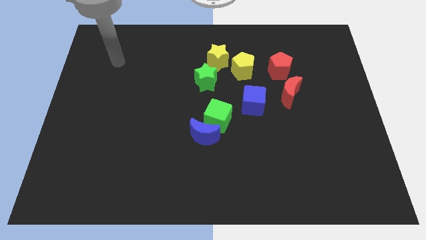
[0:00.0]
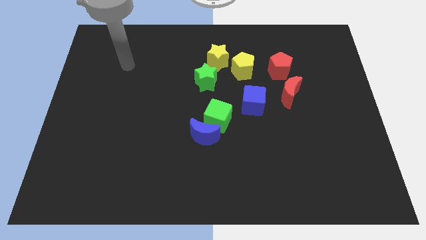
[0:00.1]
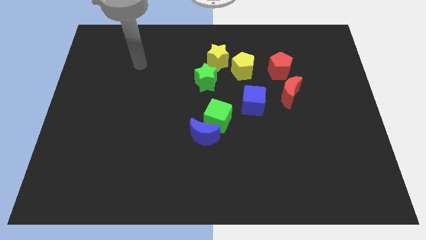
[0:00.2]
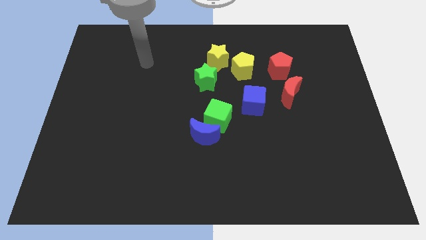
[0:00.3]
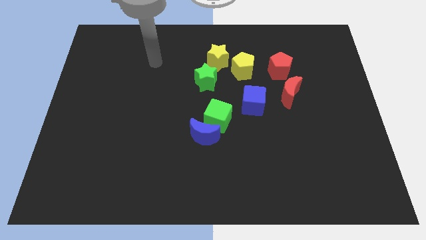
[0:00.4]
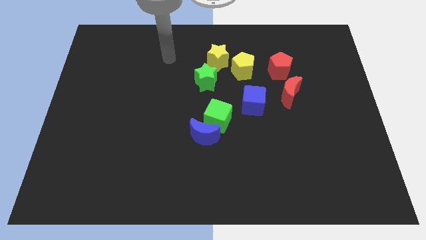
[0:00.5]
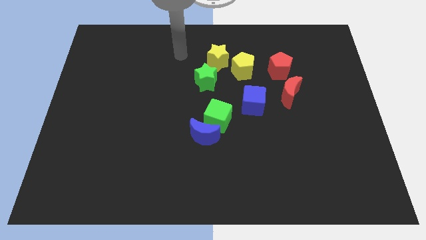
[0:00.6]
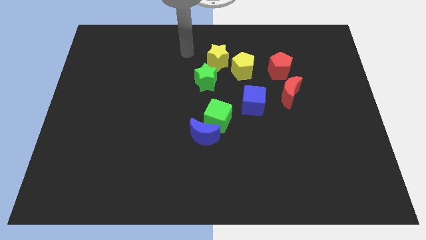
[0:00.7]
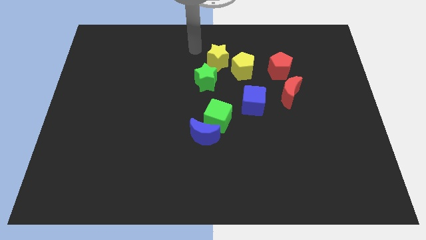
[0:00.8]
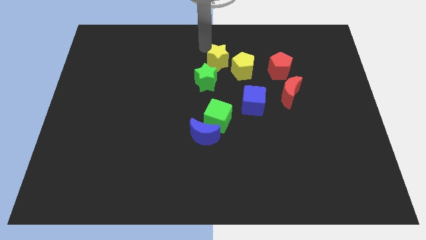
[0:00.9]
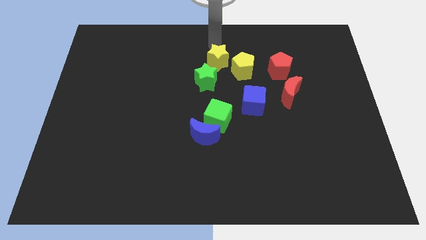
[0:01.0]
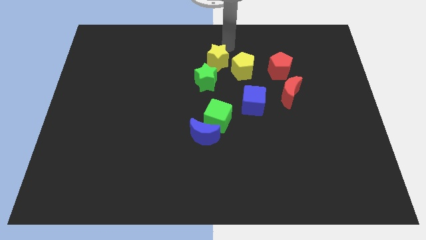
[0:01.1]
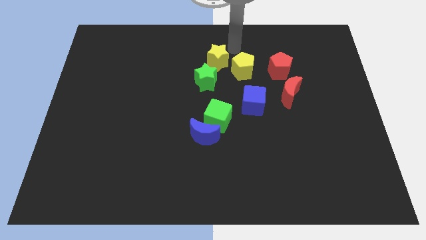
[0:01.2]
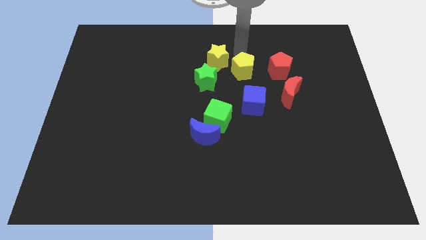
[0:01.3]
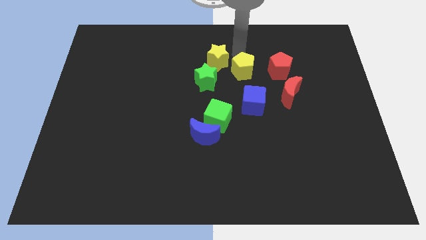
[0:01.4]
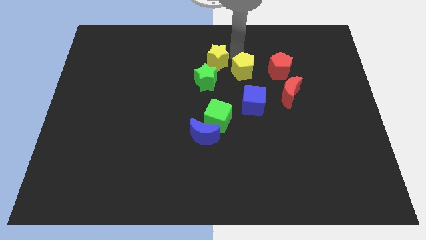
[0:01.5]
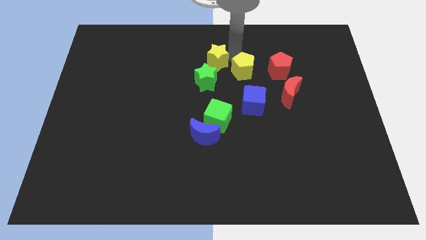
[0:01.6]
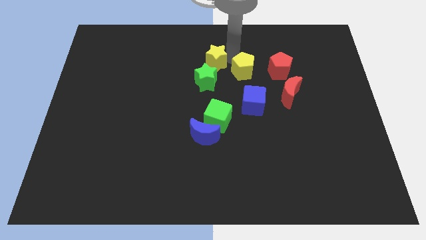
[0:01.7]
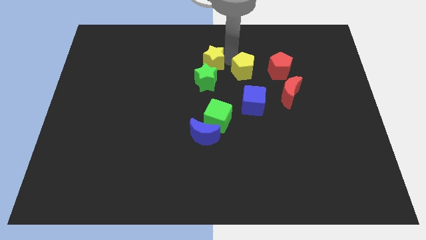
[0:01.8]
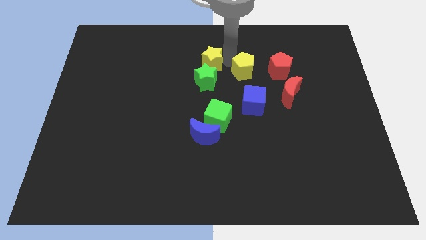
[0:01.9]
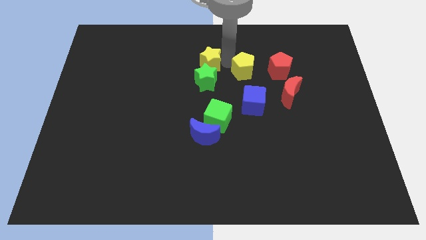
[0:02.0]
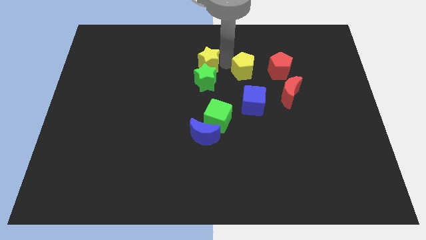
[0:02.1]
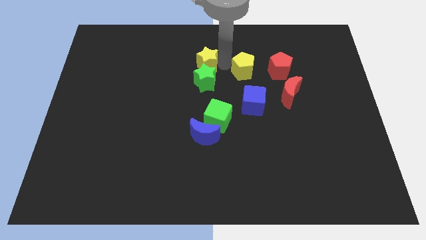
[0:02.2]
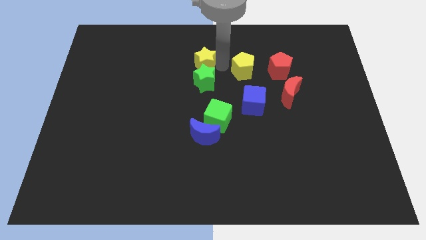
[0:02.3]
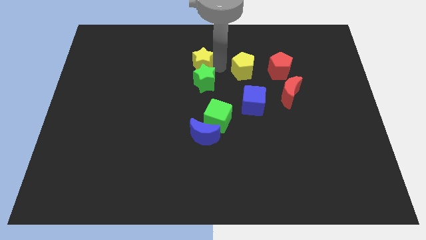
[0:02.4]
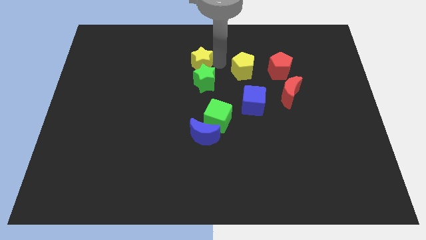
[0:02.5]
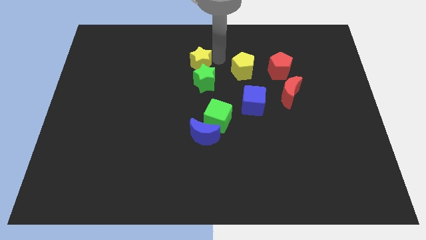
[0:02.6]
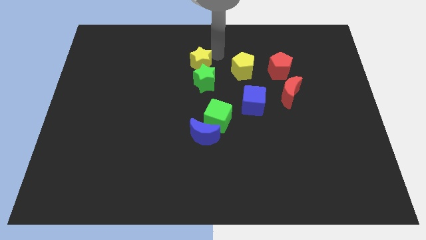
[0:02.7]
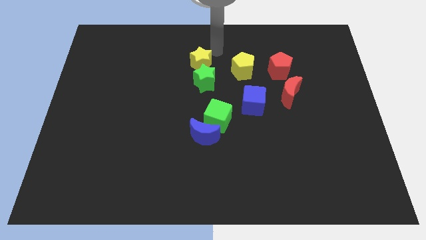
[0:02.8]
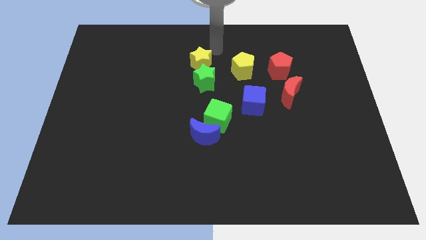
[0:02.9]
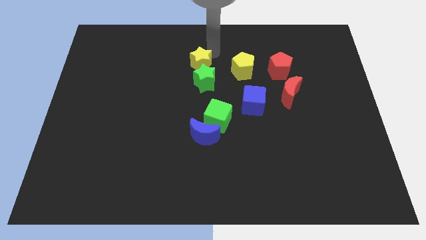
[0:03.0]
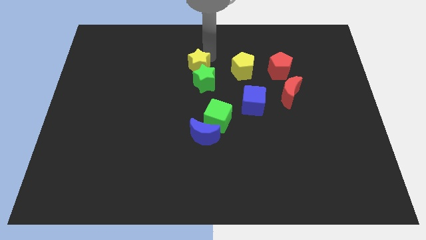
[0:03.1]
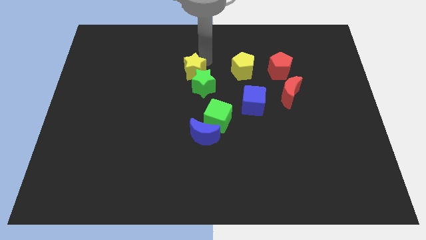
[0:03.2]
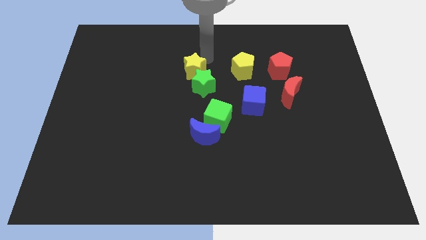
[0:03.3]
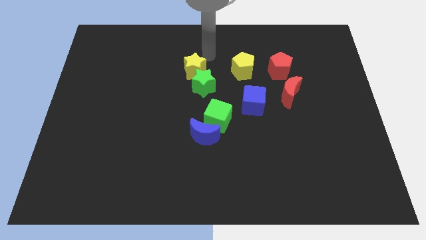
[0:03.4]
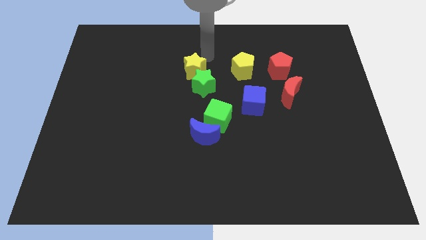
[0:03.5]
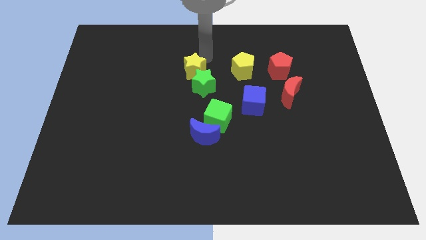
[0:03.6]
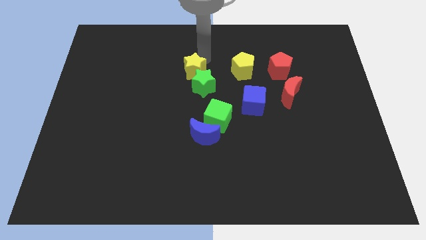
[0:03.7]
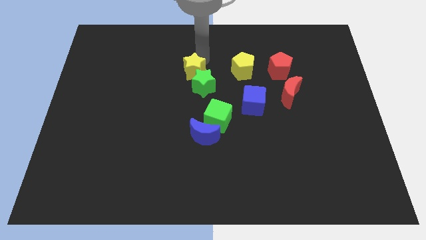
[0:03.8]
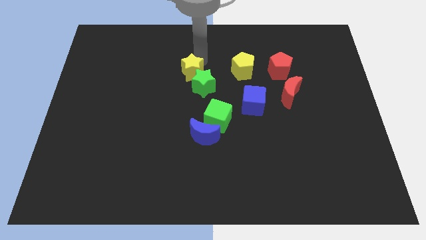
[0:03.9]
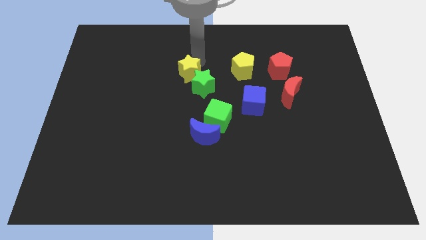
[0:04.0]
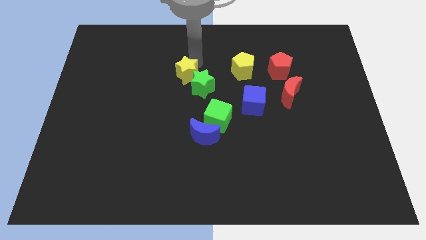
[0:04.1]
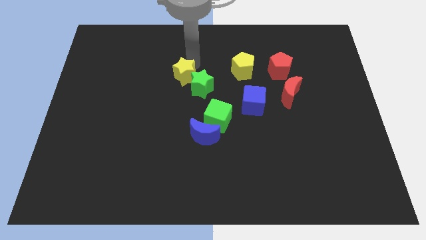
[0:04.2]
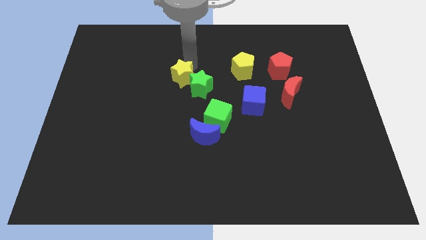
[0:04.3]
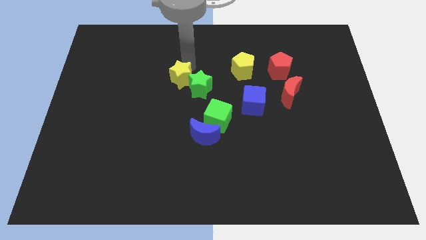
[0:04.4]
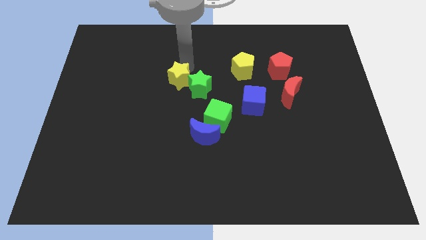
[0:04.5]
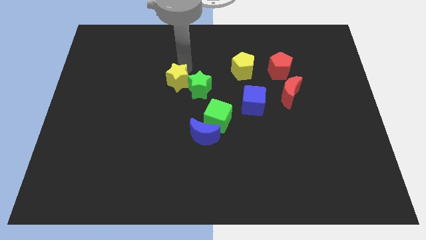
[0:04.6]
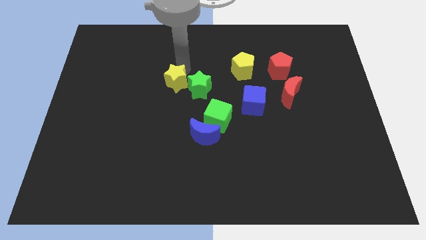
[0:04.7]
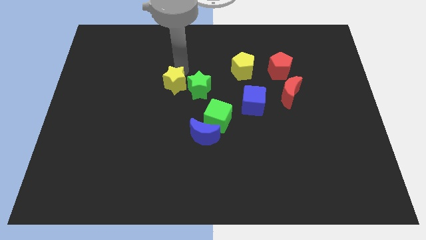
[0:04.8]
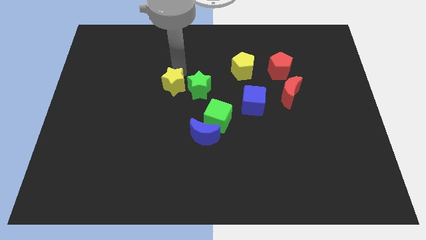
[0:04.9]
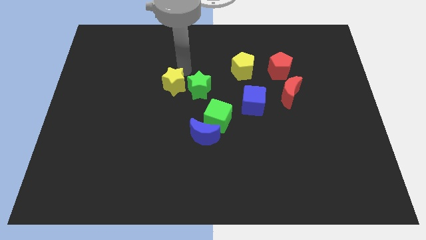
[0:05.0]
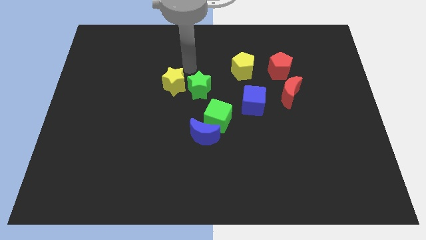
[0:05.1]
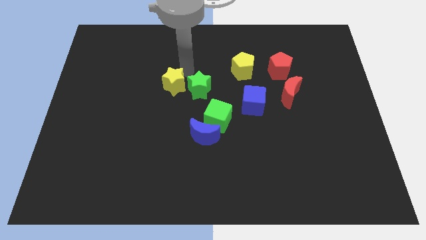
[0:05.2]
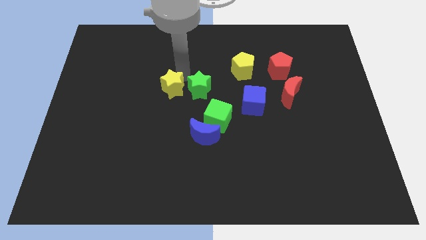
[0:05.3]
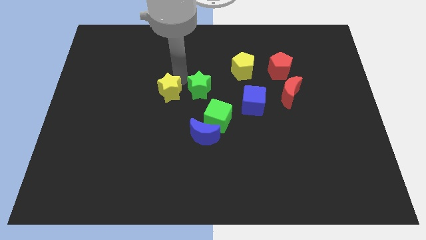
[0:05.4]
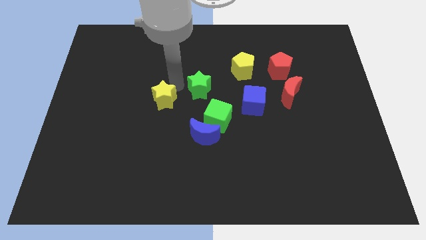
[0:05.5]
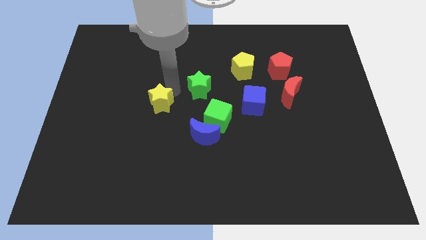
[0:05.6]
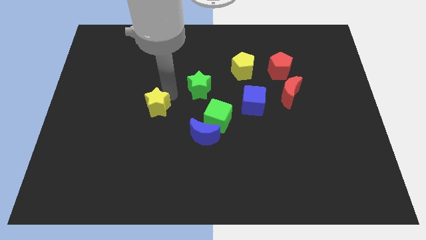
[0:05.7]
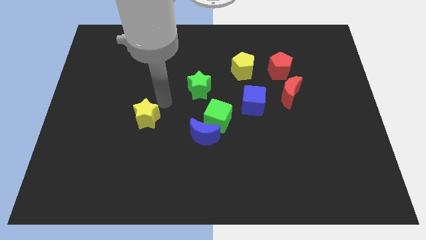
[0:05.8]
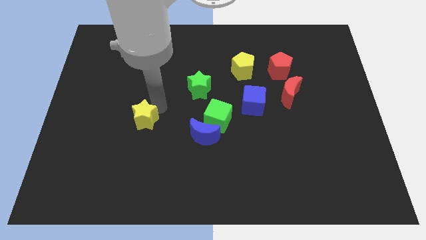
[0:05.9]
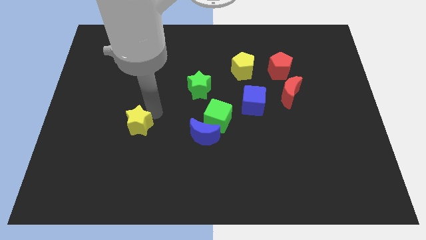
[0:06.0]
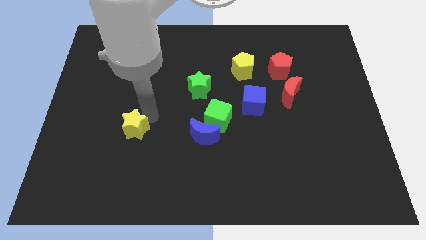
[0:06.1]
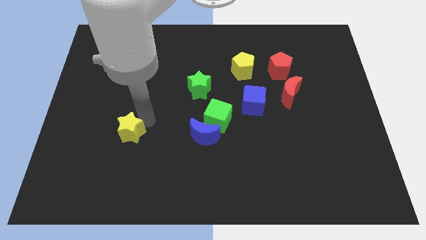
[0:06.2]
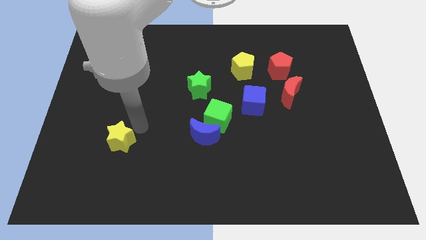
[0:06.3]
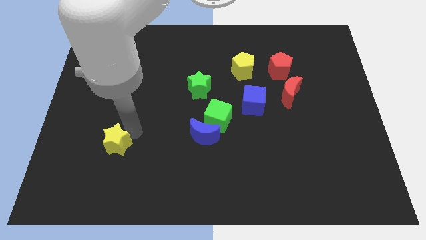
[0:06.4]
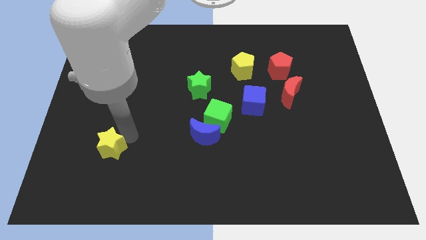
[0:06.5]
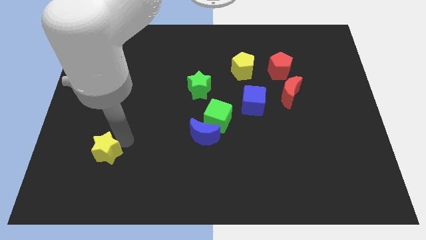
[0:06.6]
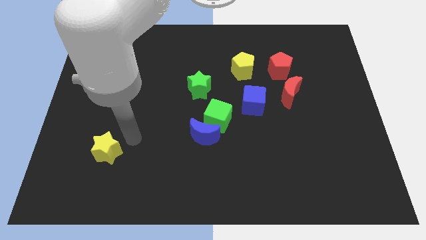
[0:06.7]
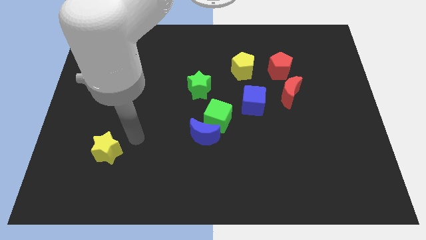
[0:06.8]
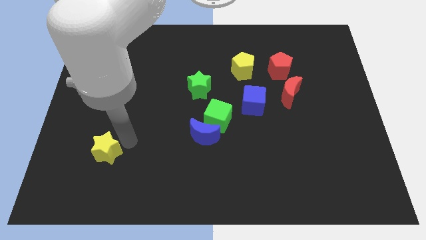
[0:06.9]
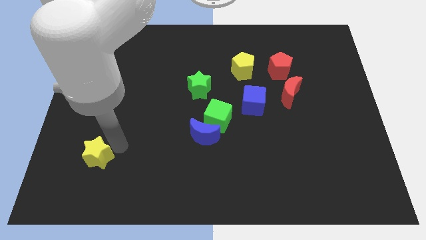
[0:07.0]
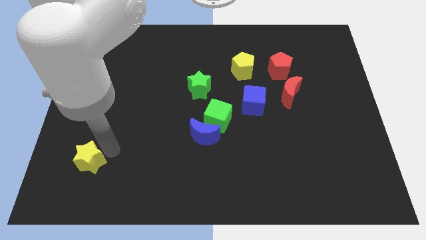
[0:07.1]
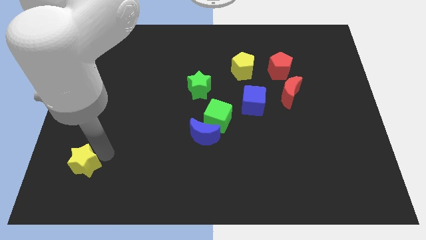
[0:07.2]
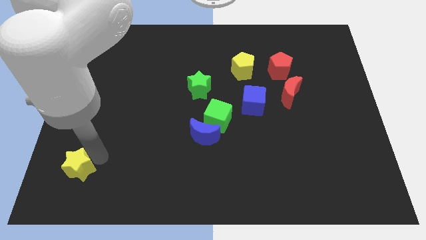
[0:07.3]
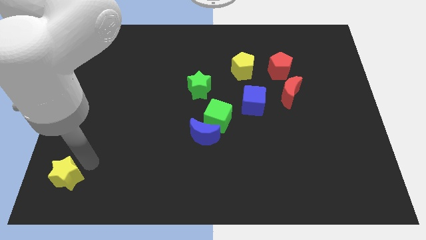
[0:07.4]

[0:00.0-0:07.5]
move the yellow star to the bottom left corner
